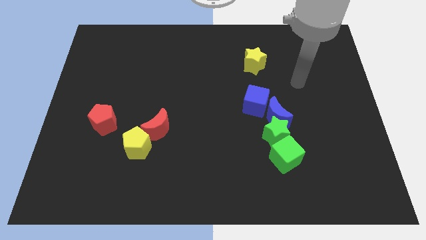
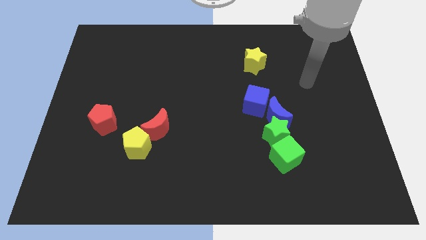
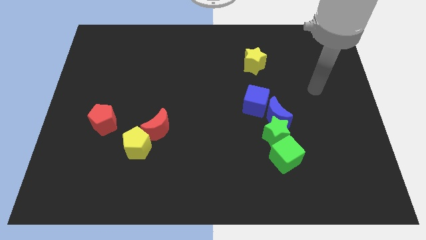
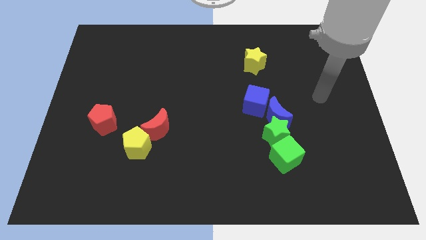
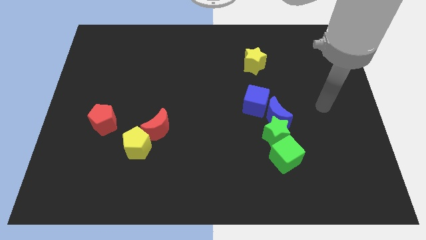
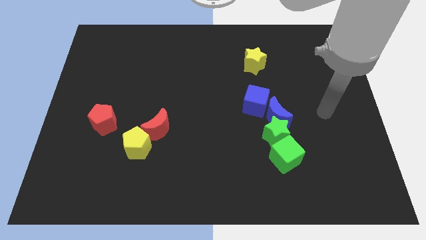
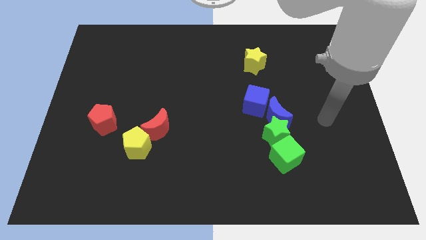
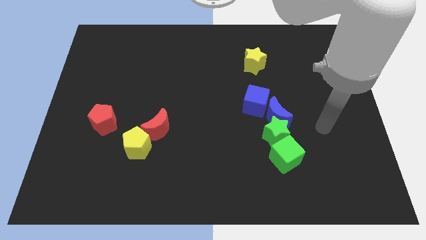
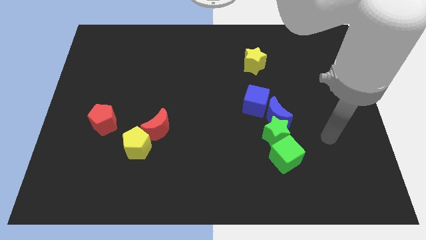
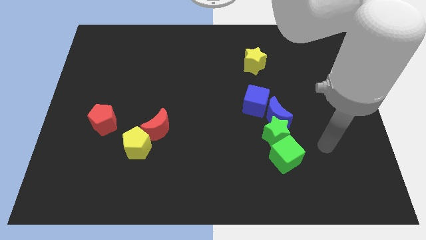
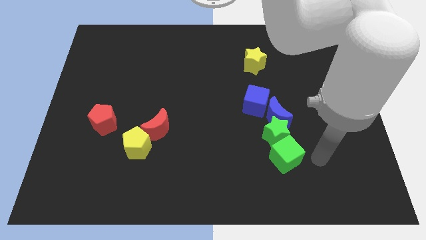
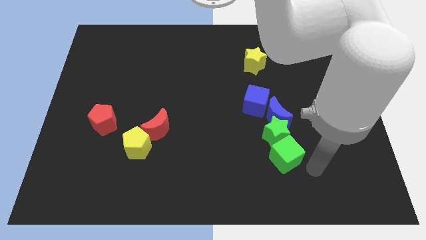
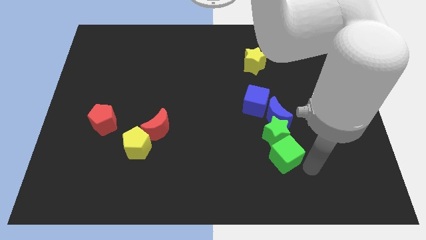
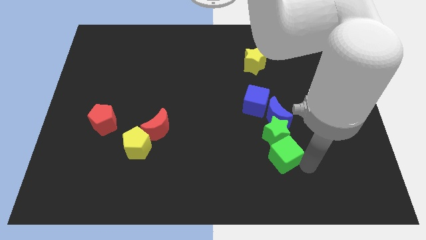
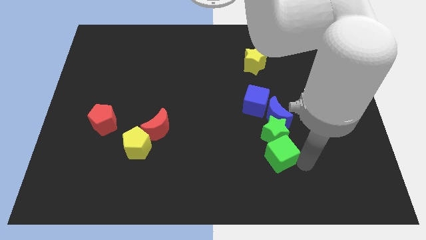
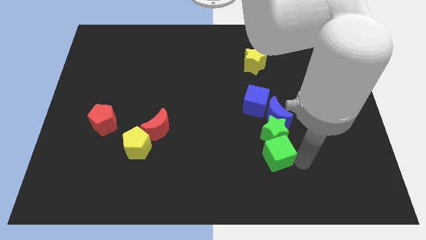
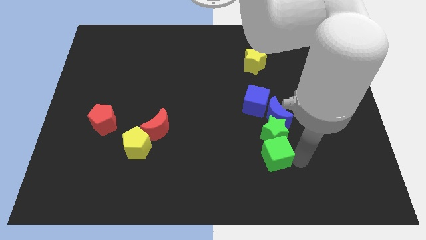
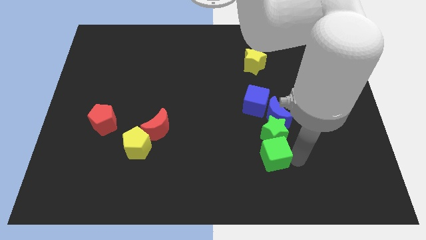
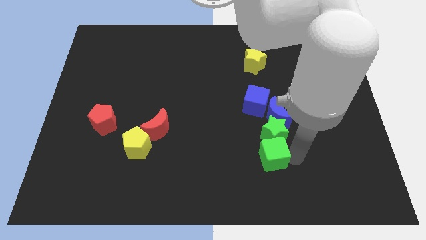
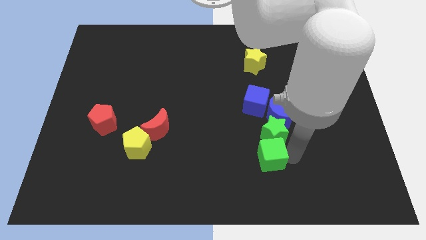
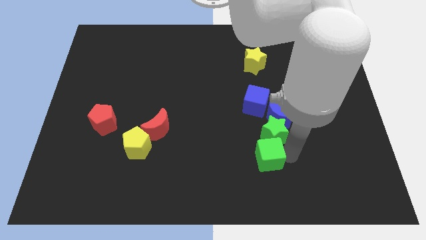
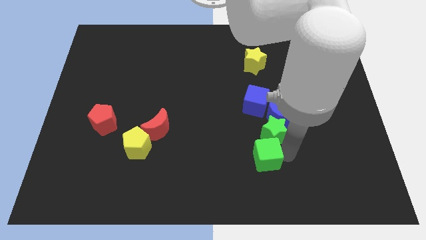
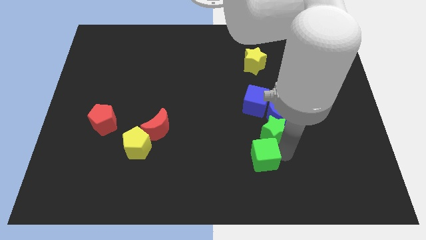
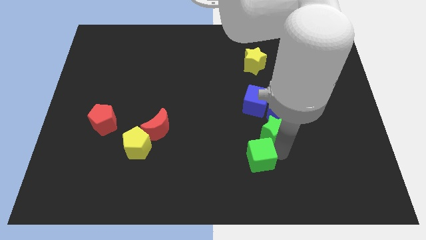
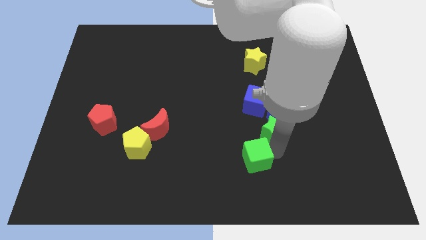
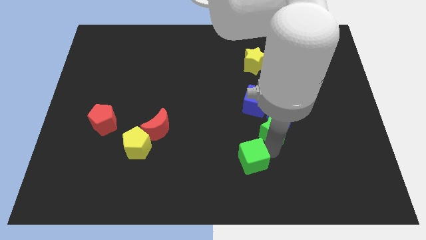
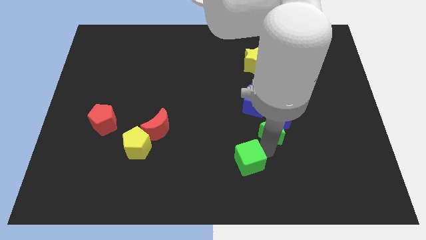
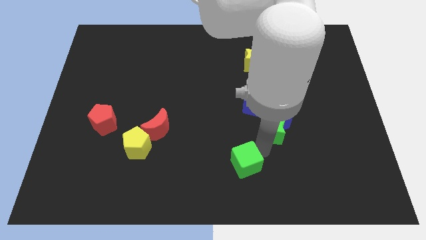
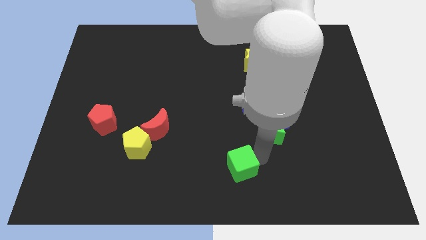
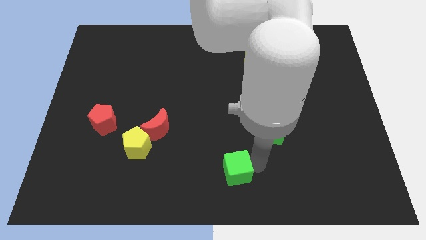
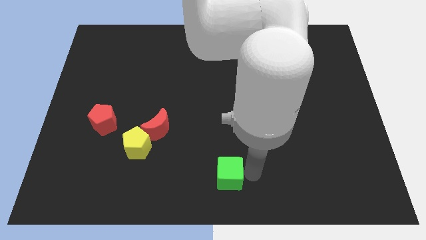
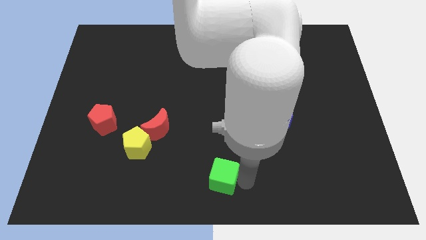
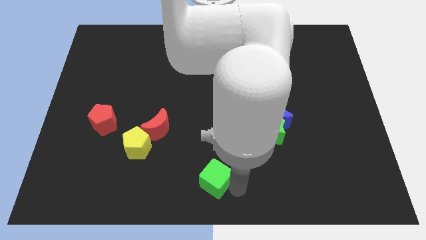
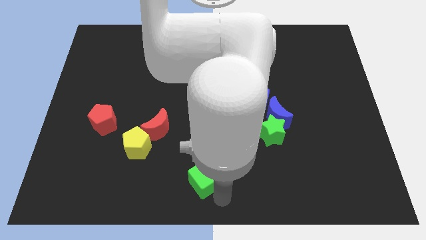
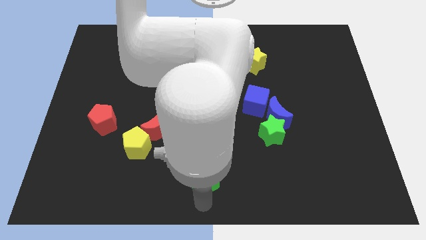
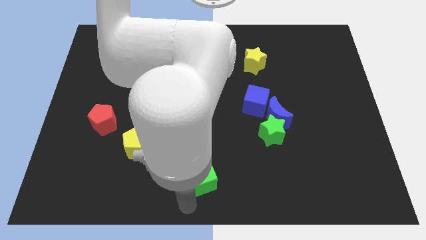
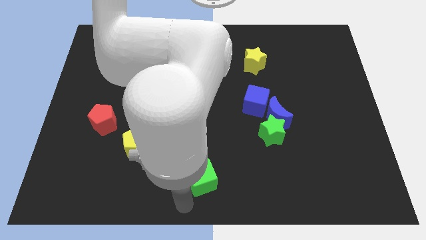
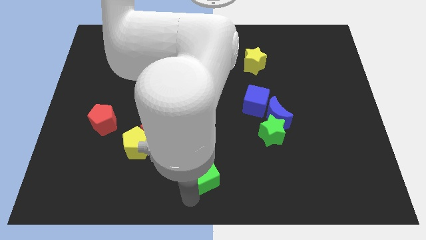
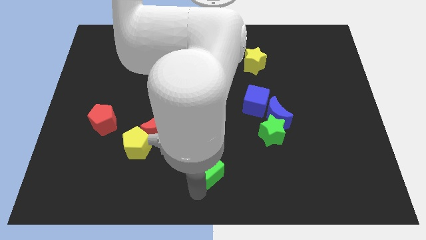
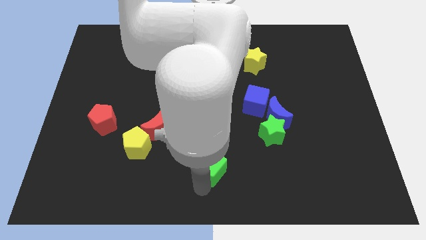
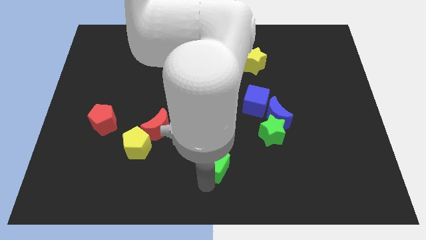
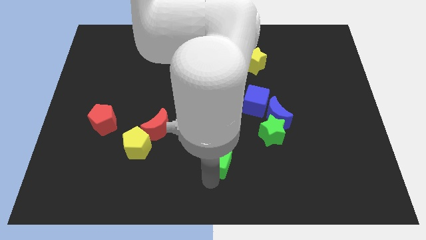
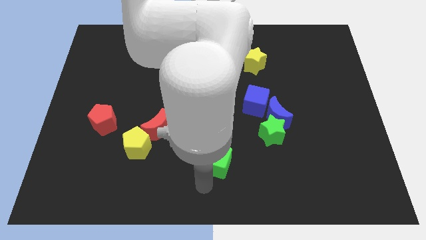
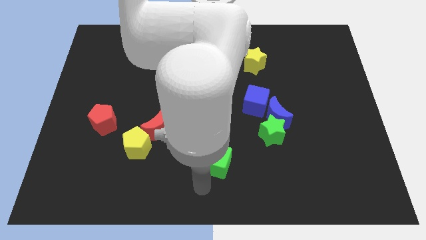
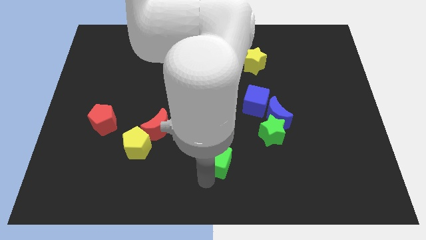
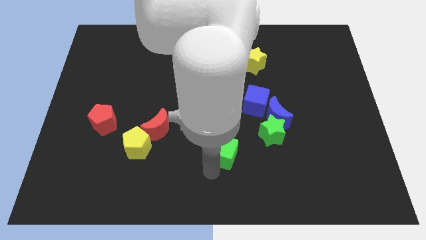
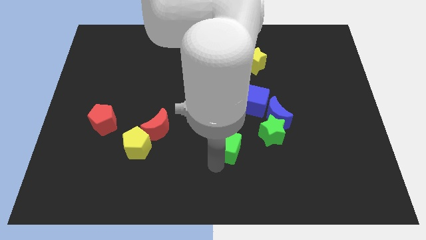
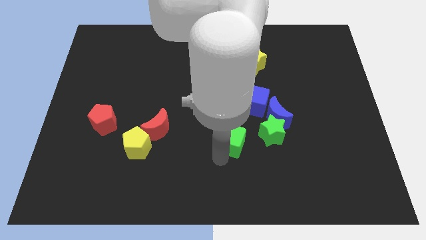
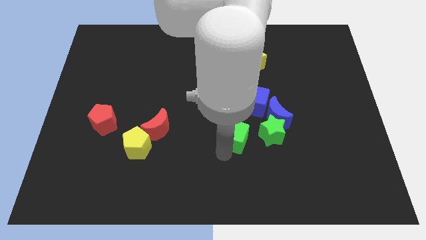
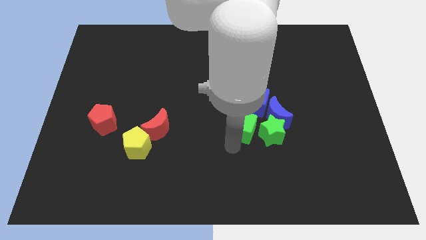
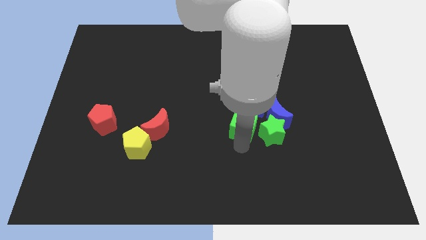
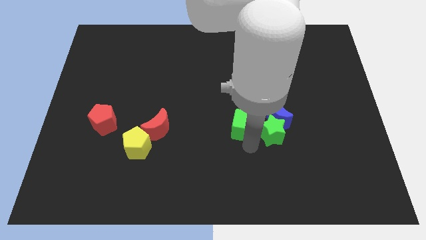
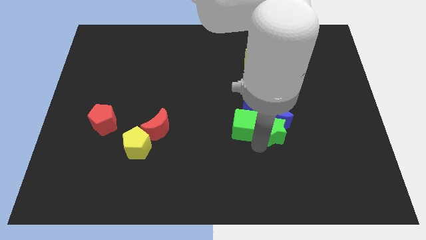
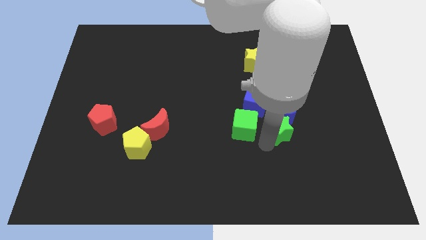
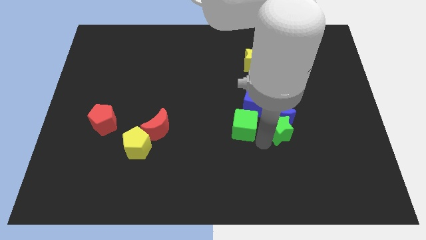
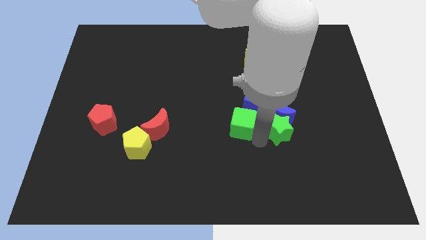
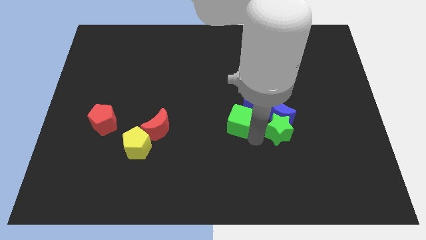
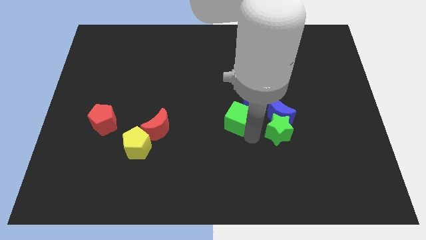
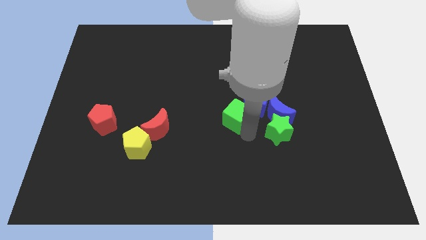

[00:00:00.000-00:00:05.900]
move the green cube to the left of the blue cube

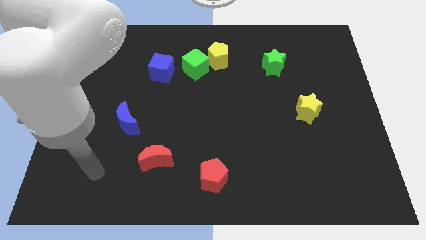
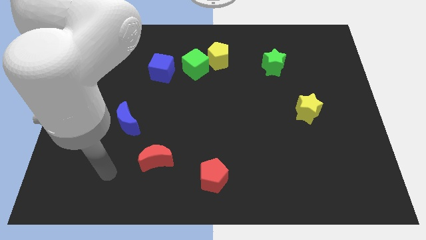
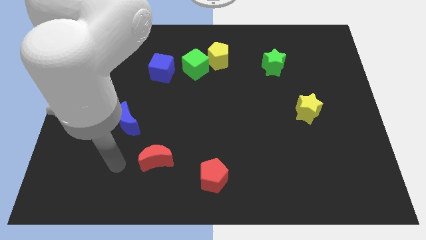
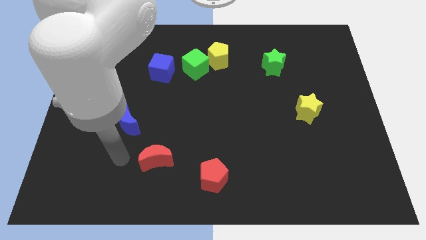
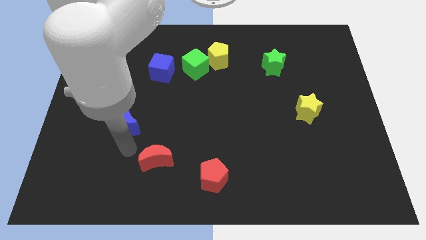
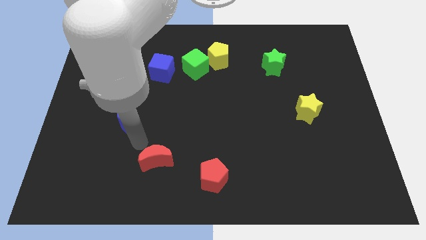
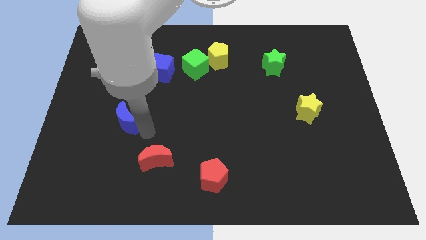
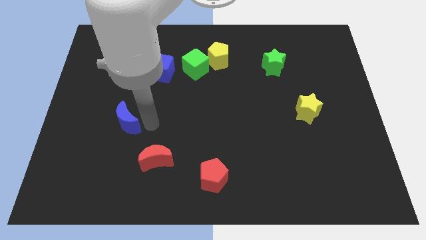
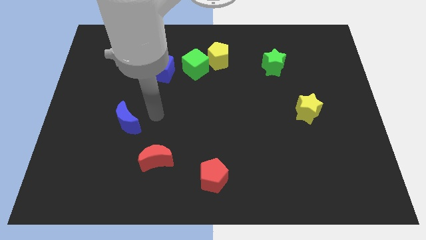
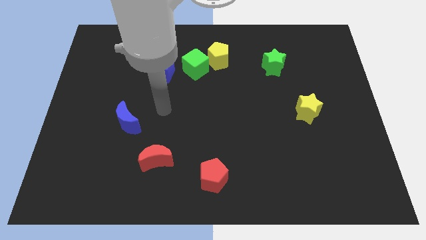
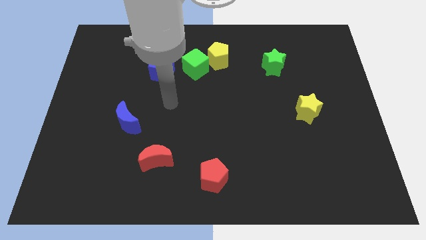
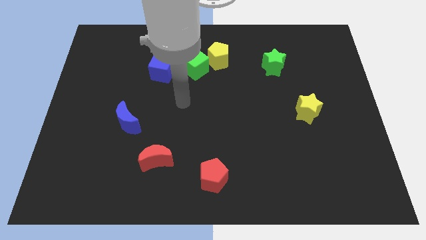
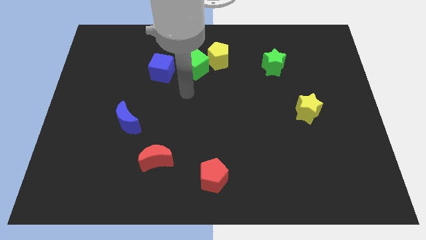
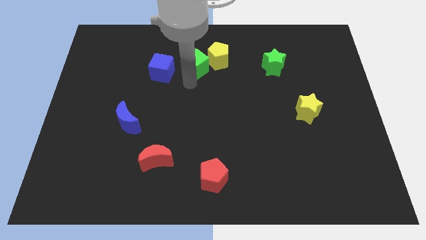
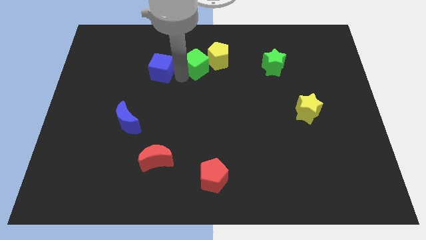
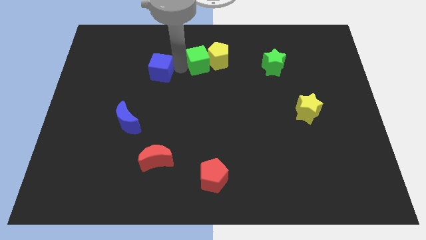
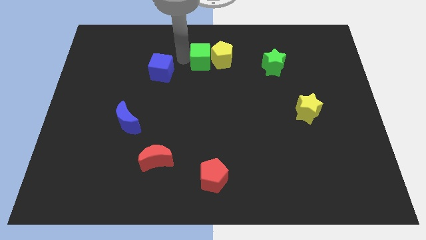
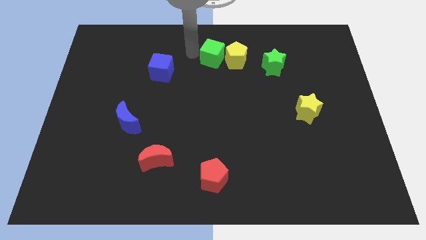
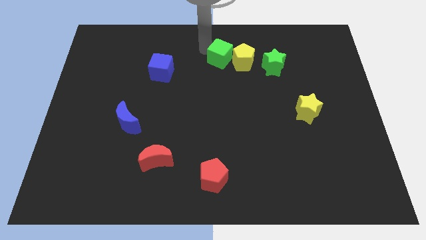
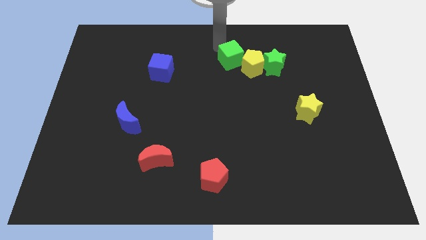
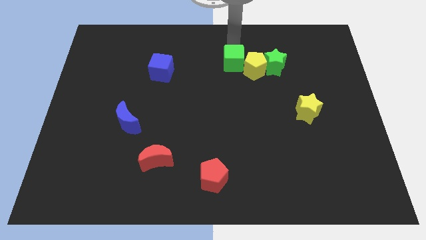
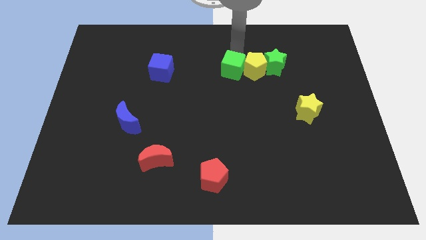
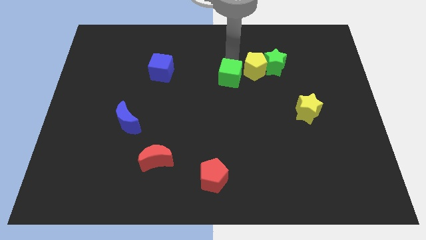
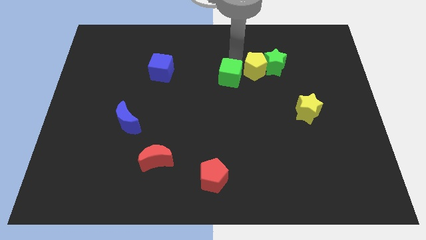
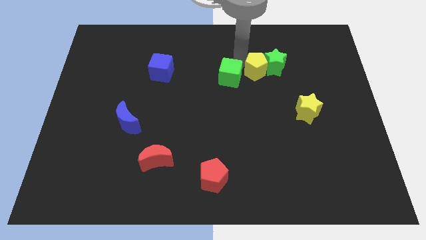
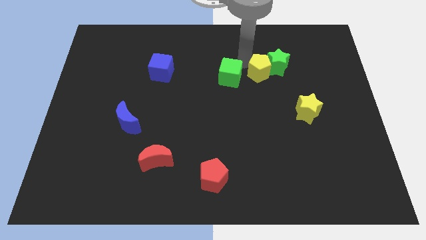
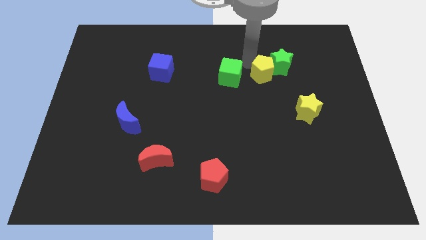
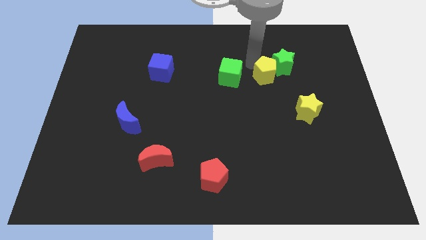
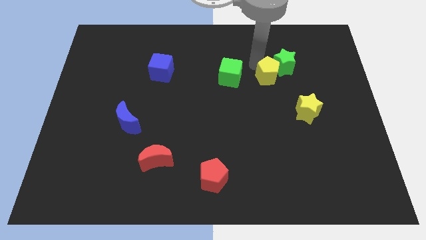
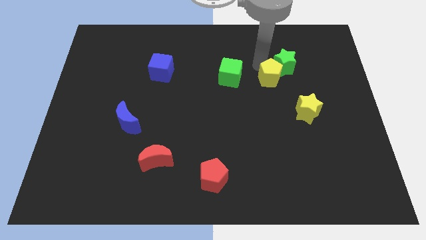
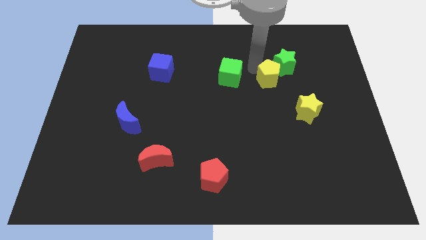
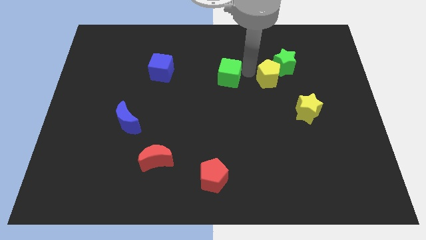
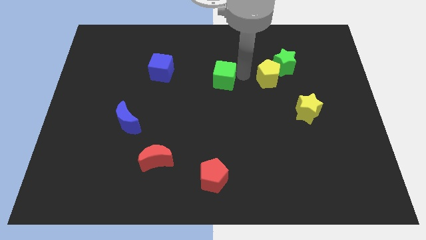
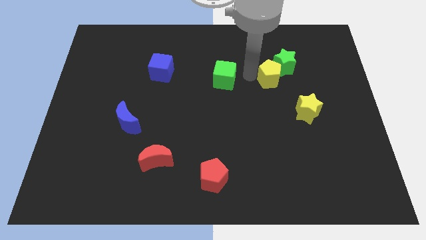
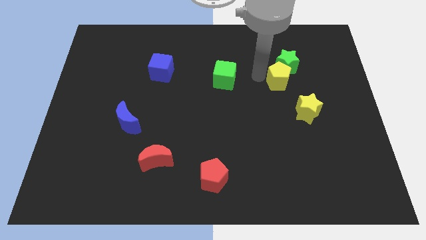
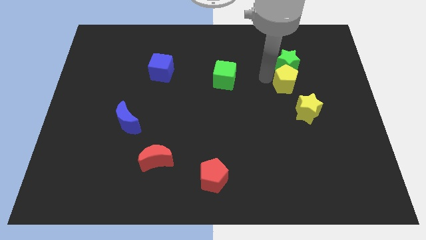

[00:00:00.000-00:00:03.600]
put the yellow pentagon to the bottom right side of the green star
